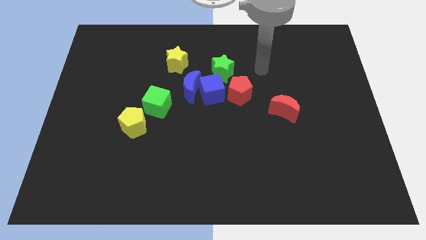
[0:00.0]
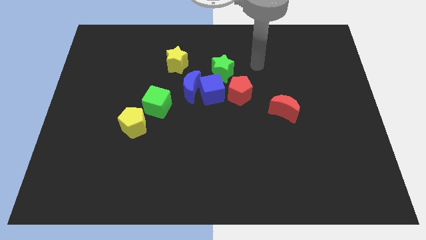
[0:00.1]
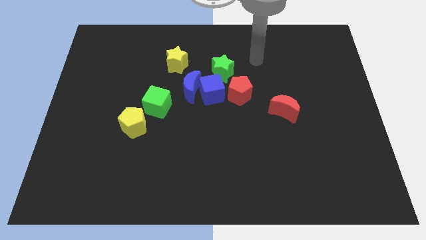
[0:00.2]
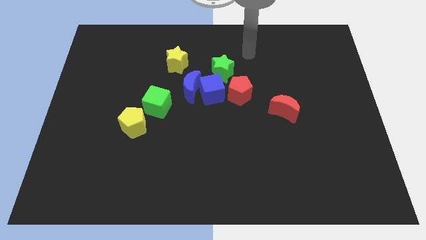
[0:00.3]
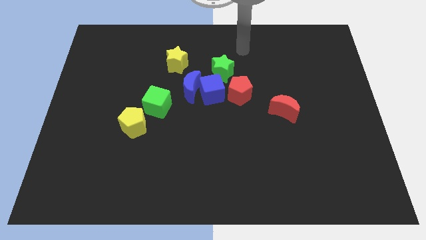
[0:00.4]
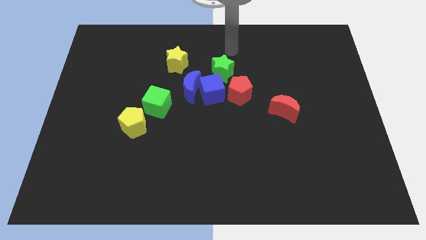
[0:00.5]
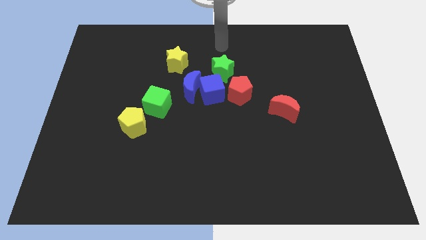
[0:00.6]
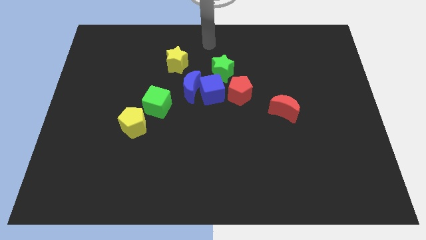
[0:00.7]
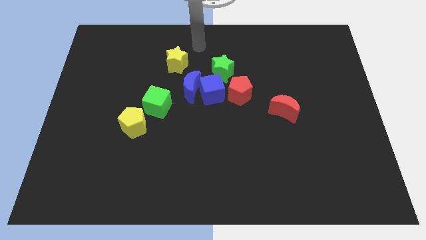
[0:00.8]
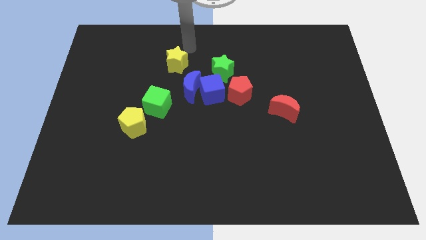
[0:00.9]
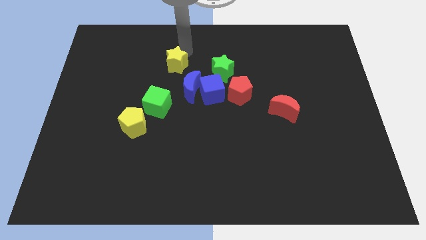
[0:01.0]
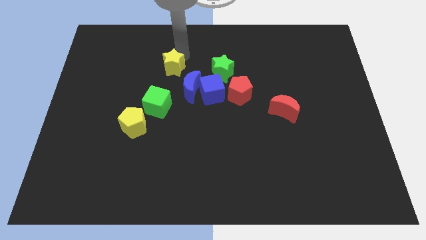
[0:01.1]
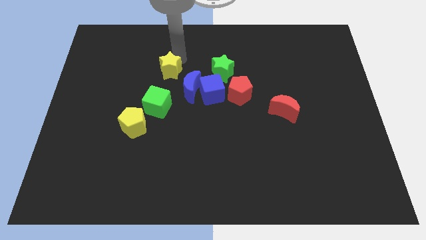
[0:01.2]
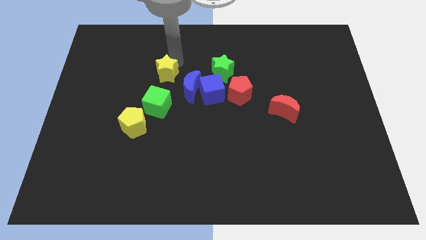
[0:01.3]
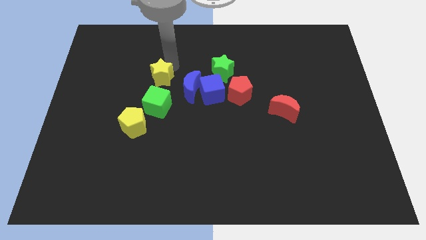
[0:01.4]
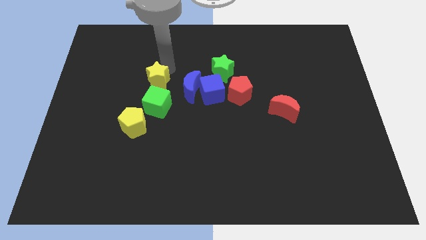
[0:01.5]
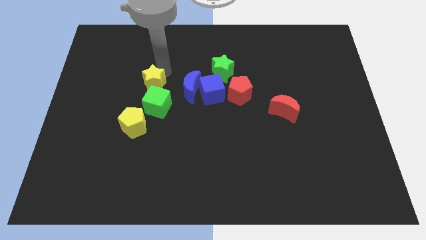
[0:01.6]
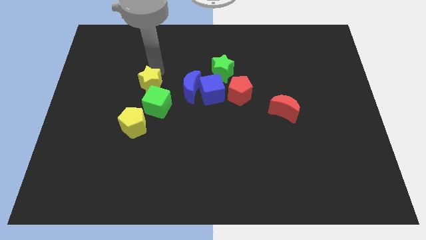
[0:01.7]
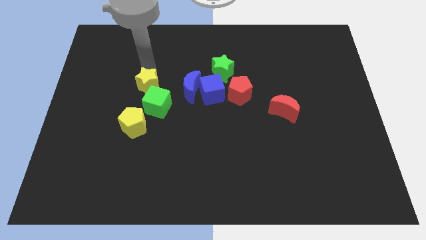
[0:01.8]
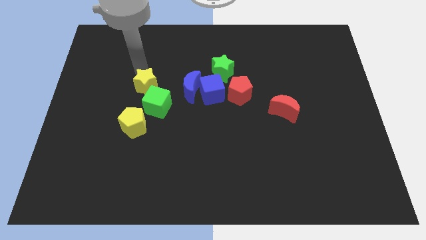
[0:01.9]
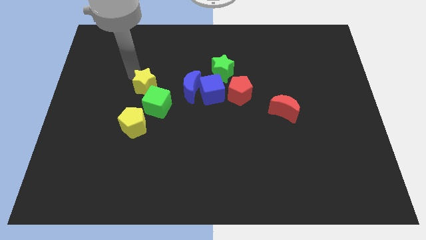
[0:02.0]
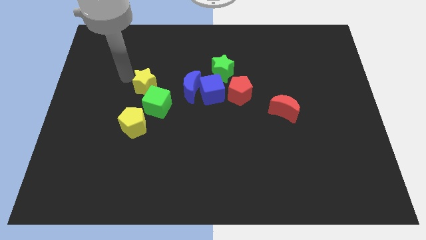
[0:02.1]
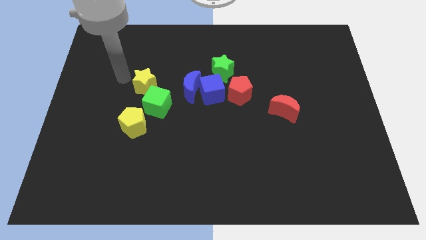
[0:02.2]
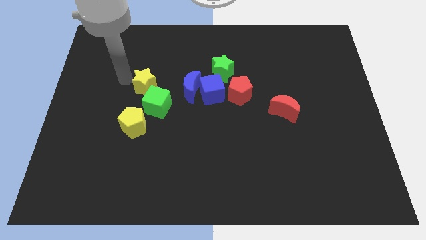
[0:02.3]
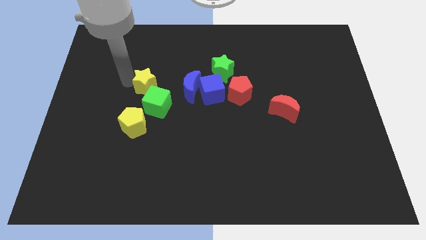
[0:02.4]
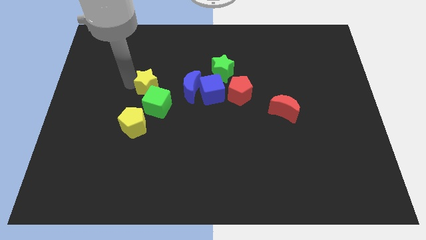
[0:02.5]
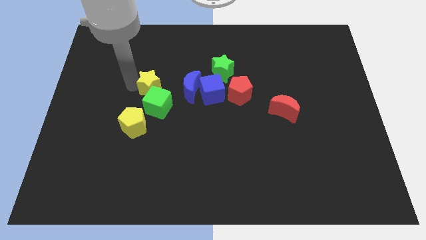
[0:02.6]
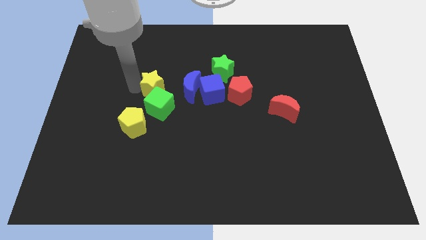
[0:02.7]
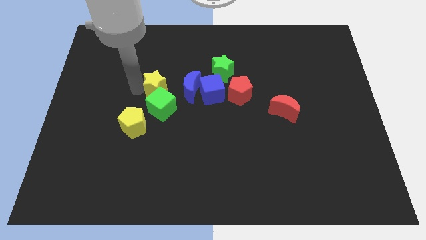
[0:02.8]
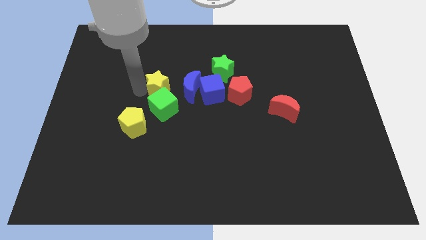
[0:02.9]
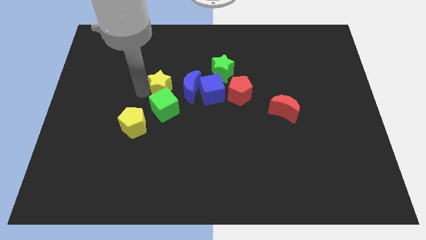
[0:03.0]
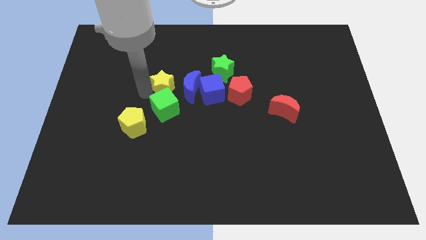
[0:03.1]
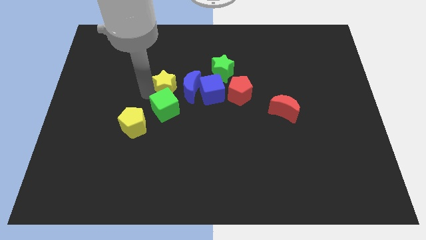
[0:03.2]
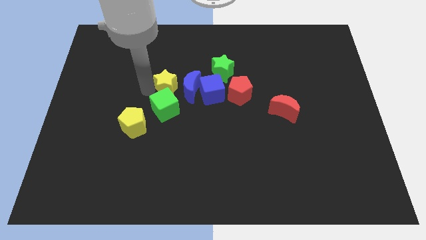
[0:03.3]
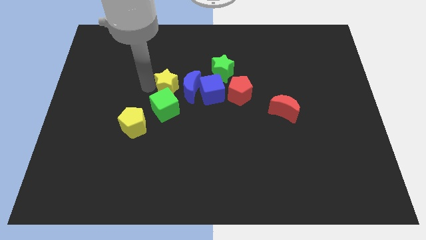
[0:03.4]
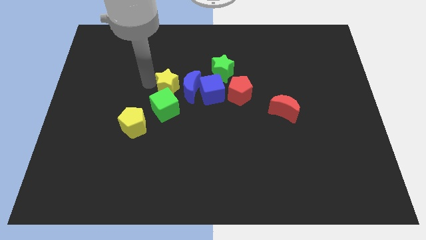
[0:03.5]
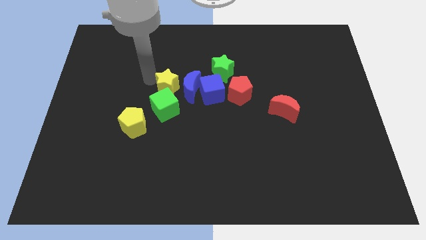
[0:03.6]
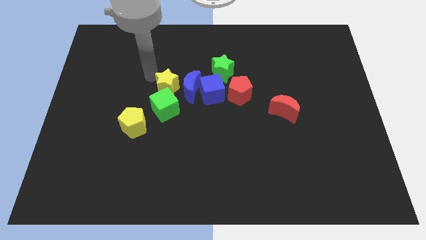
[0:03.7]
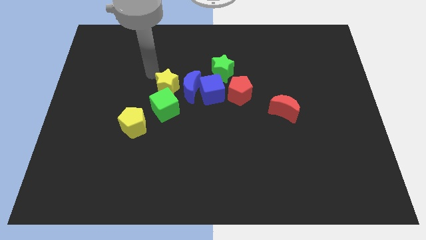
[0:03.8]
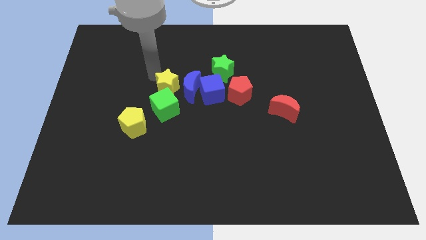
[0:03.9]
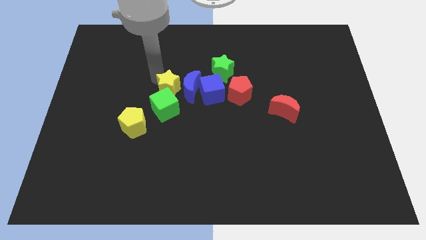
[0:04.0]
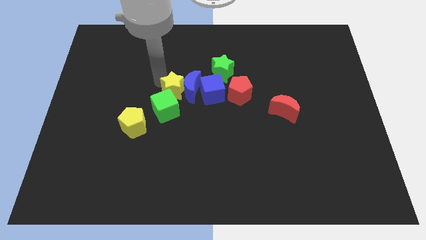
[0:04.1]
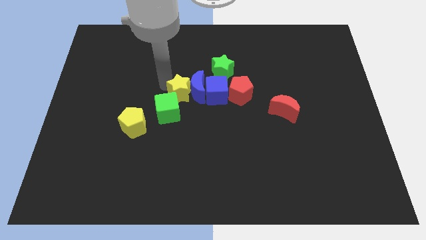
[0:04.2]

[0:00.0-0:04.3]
slightly slide the yellow star down and to the right diagonally

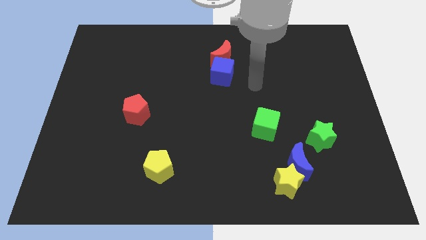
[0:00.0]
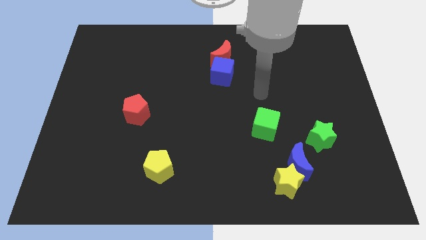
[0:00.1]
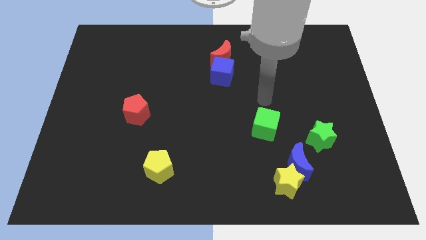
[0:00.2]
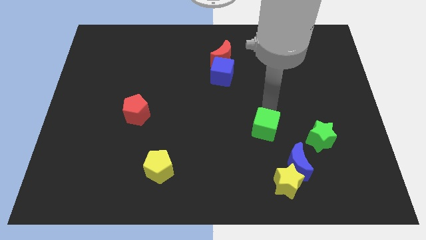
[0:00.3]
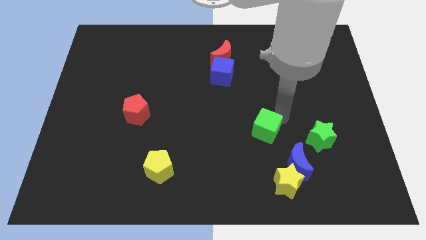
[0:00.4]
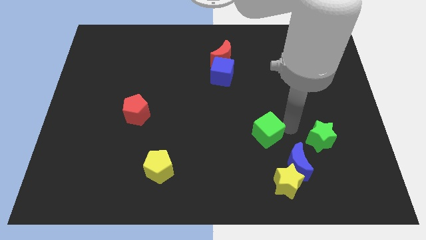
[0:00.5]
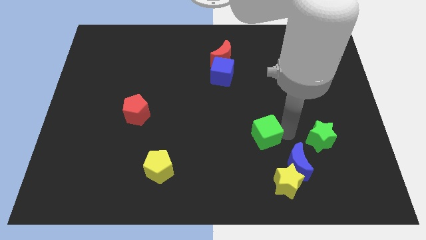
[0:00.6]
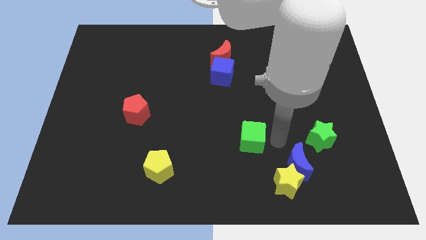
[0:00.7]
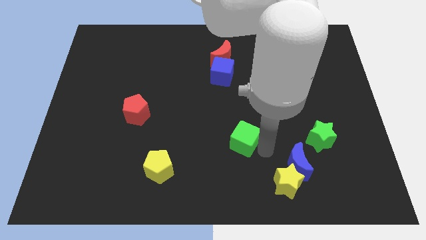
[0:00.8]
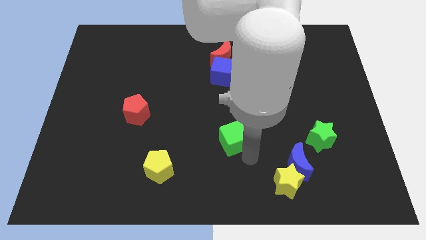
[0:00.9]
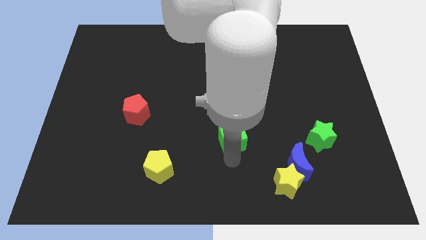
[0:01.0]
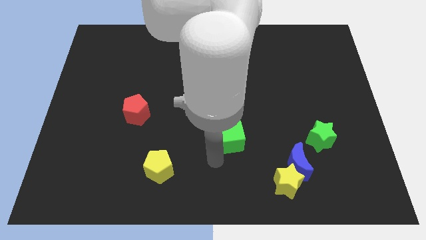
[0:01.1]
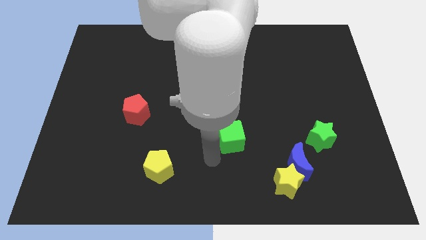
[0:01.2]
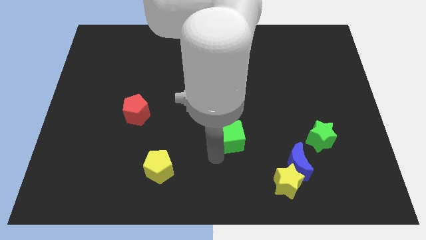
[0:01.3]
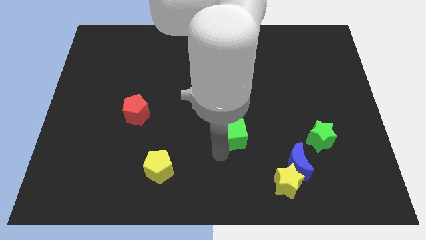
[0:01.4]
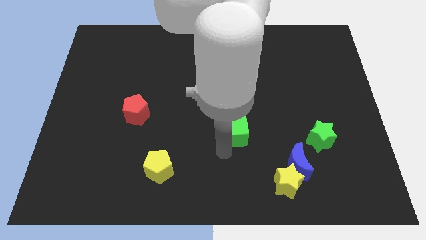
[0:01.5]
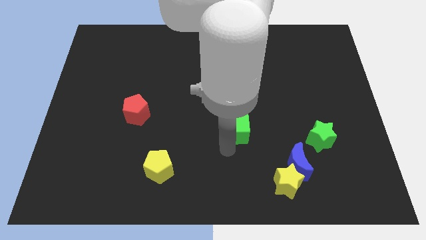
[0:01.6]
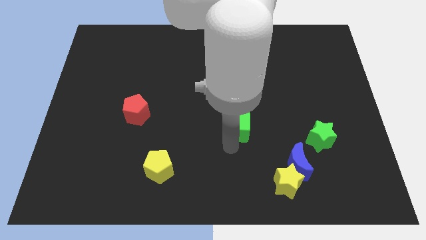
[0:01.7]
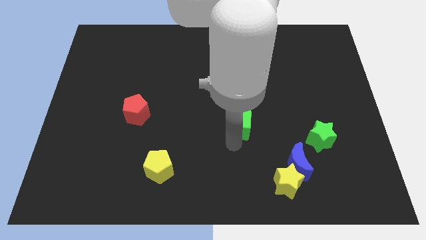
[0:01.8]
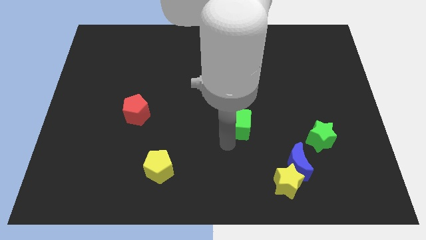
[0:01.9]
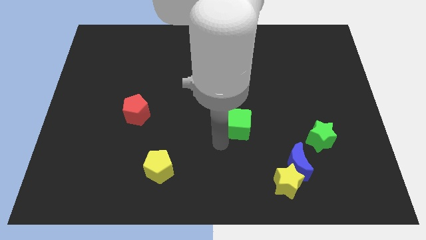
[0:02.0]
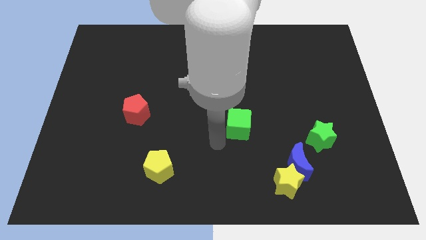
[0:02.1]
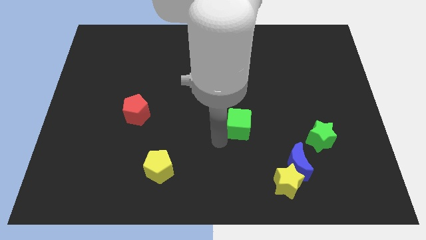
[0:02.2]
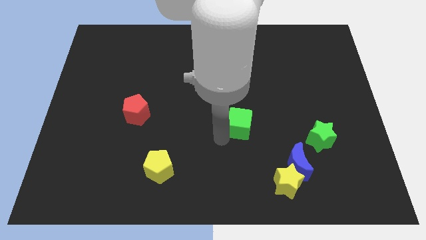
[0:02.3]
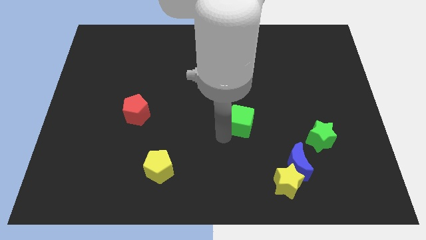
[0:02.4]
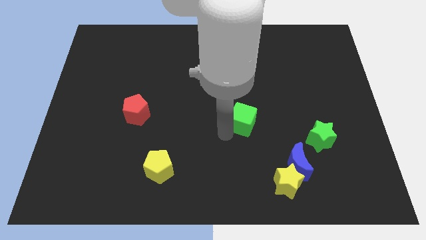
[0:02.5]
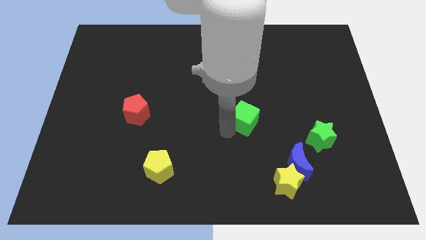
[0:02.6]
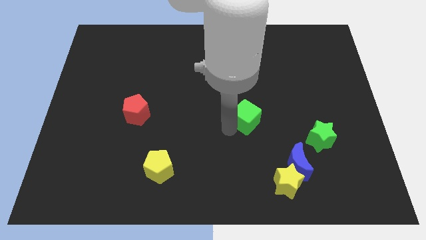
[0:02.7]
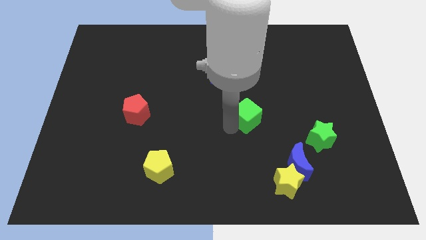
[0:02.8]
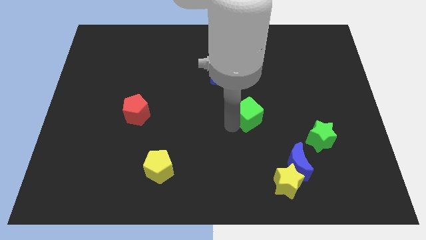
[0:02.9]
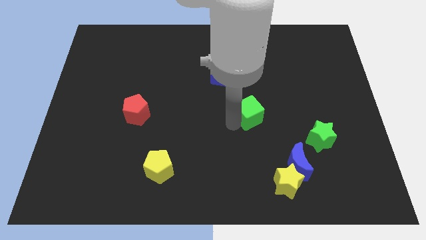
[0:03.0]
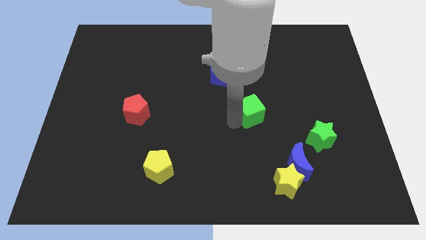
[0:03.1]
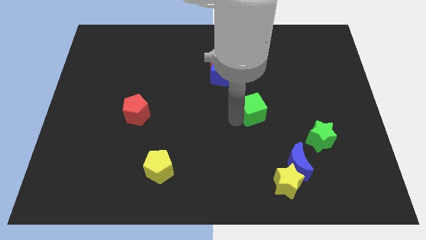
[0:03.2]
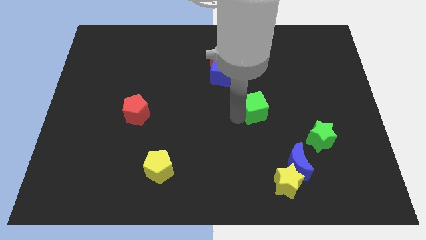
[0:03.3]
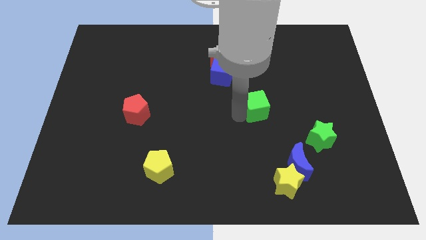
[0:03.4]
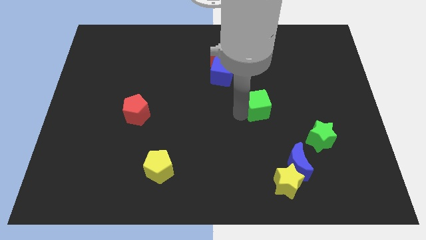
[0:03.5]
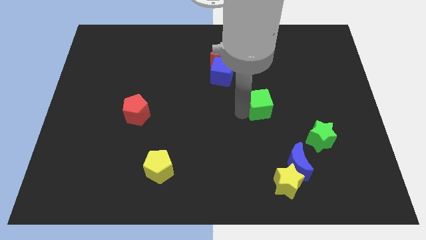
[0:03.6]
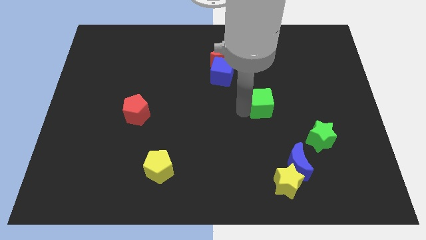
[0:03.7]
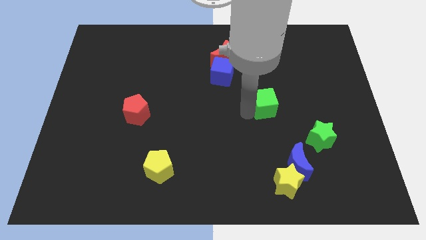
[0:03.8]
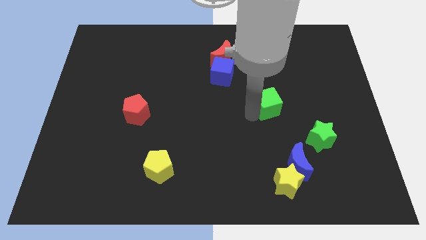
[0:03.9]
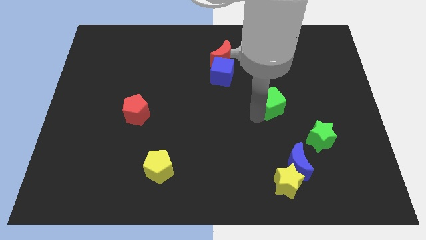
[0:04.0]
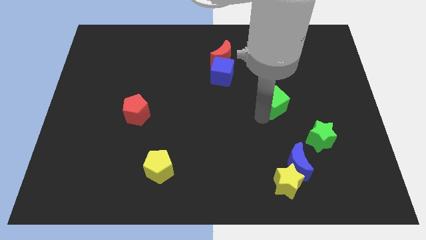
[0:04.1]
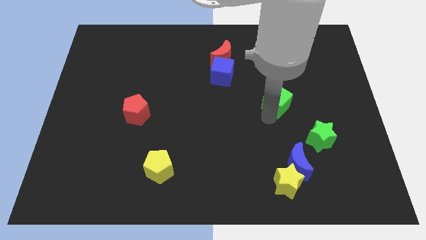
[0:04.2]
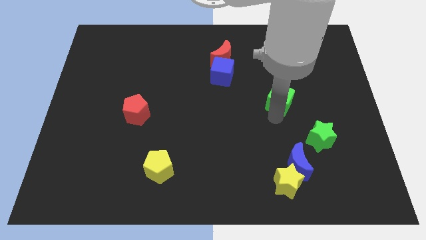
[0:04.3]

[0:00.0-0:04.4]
slide the green cube a bit upwards
